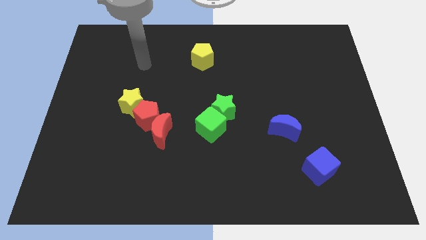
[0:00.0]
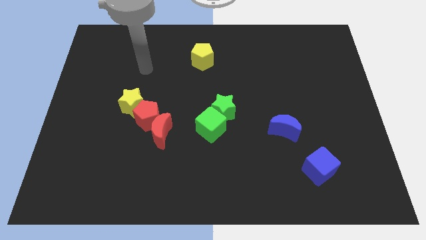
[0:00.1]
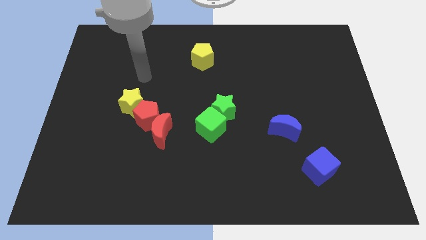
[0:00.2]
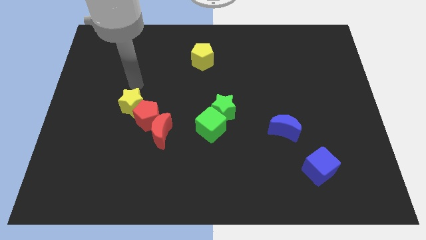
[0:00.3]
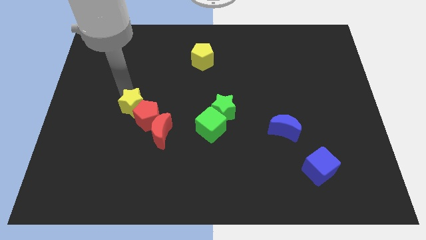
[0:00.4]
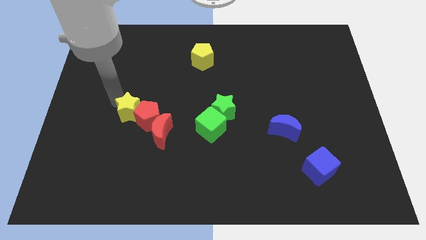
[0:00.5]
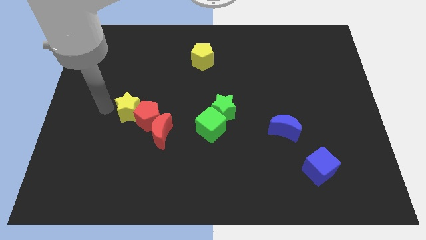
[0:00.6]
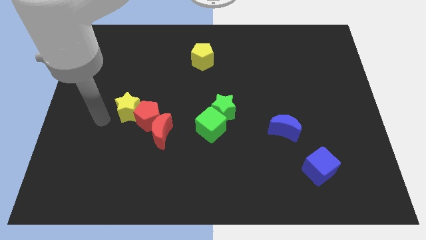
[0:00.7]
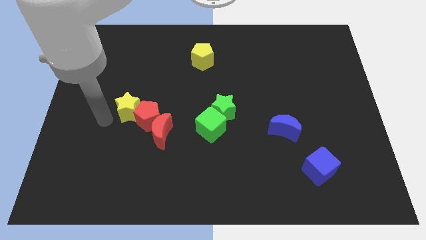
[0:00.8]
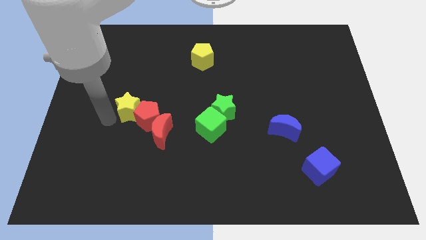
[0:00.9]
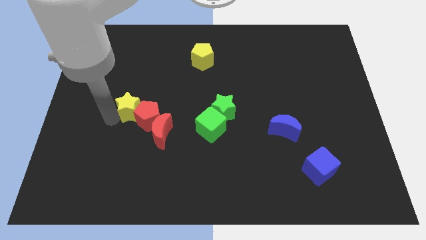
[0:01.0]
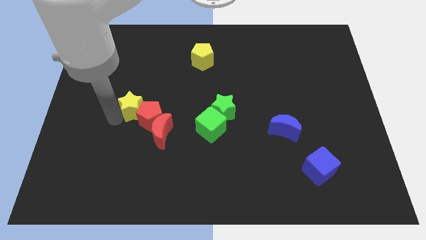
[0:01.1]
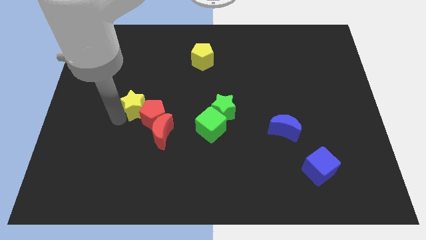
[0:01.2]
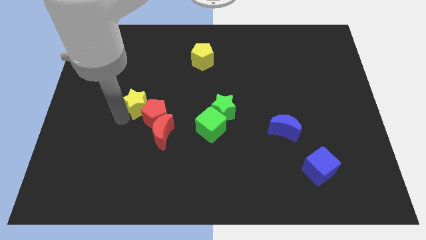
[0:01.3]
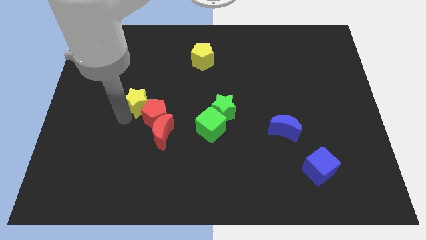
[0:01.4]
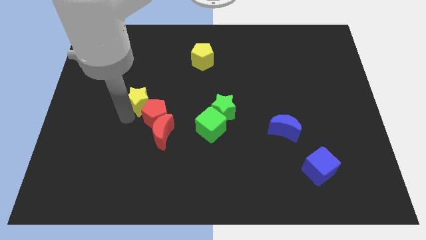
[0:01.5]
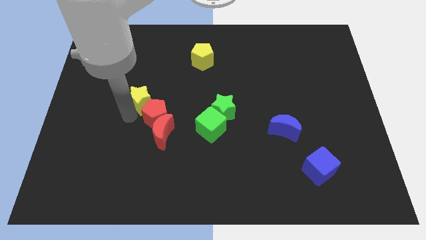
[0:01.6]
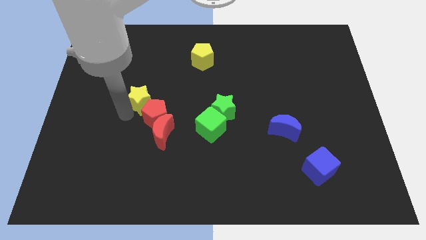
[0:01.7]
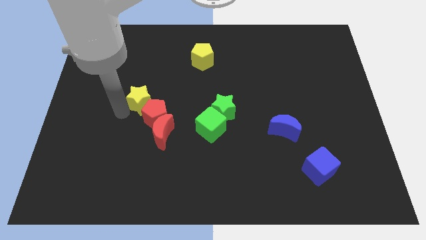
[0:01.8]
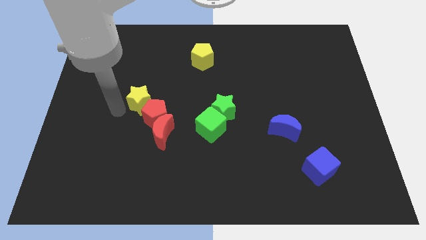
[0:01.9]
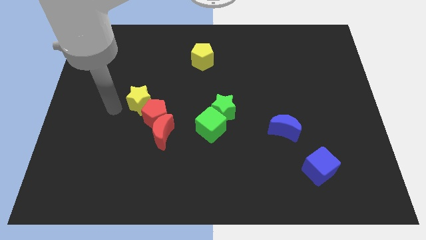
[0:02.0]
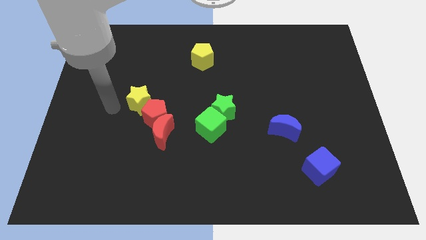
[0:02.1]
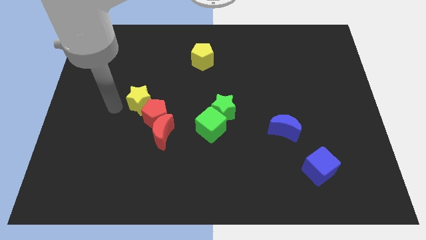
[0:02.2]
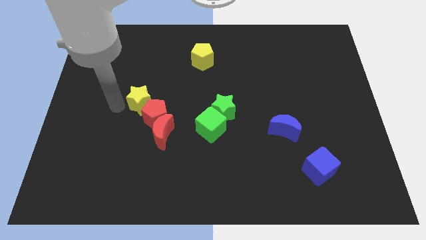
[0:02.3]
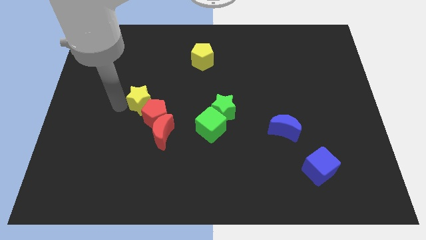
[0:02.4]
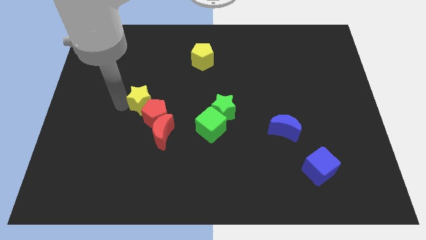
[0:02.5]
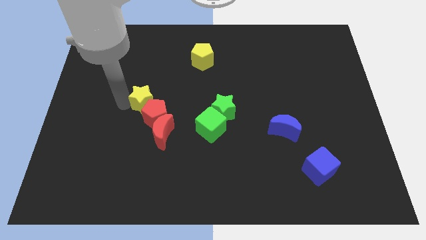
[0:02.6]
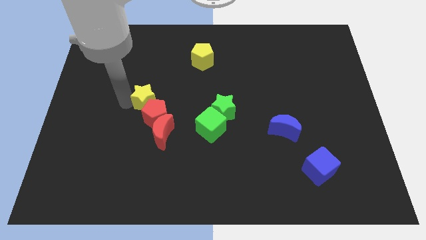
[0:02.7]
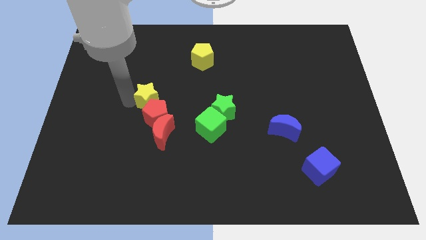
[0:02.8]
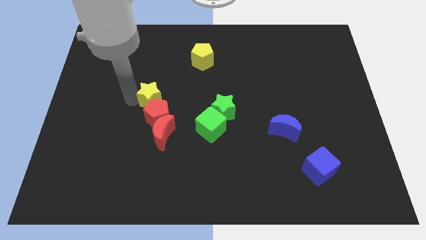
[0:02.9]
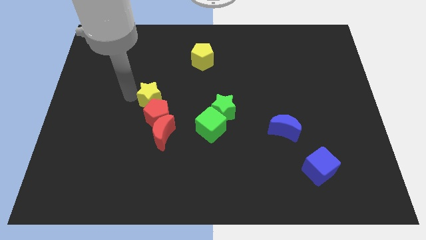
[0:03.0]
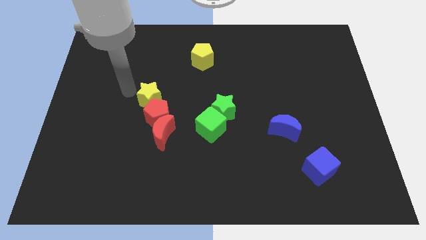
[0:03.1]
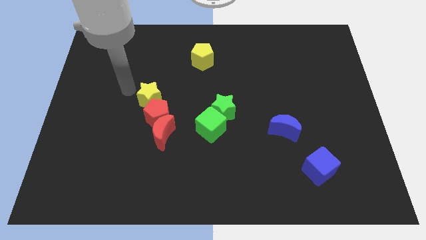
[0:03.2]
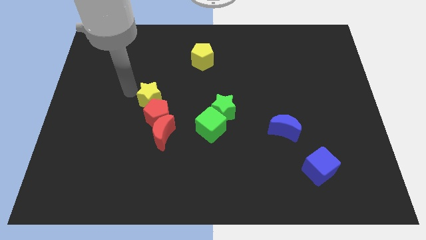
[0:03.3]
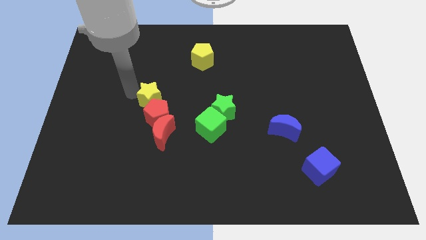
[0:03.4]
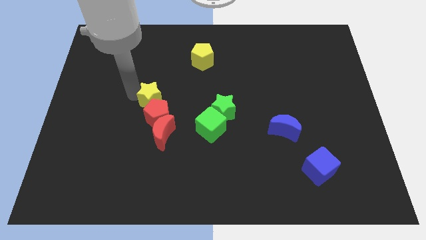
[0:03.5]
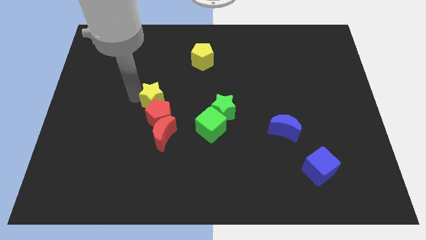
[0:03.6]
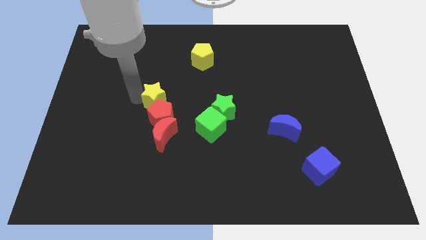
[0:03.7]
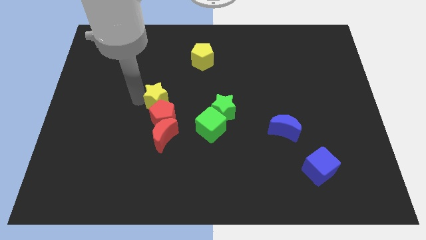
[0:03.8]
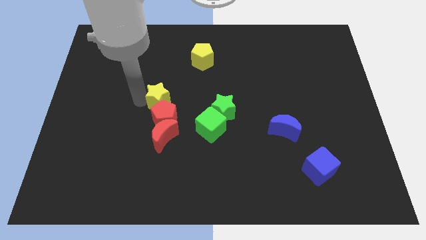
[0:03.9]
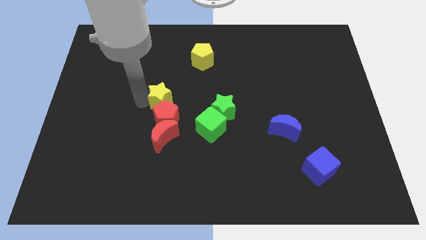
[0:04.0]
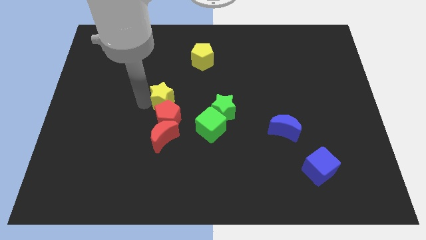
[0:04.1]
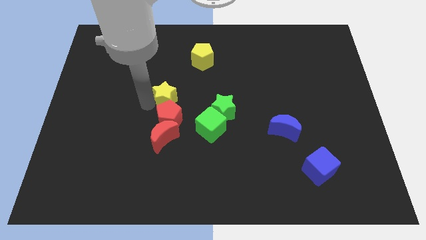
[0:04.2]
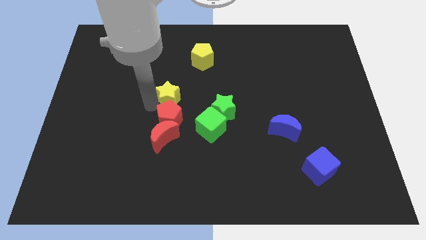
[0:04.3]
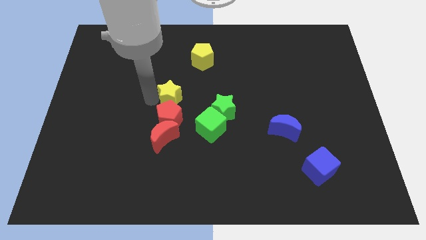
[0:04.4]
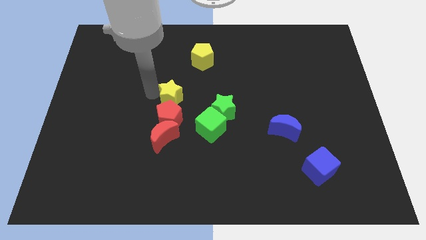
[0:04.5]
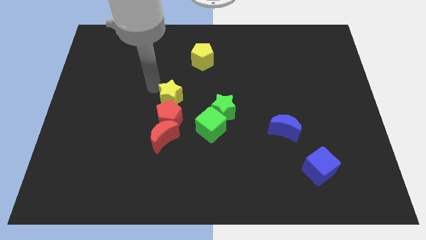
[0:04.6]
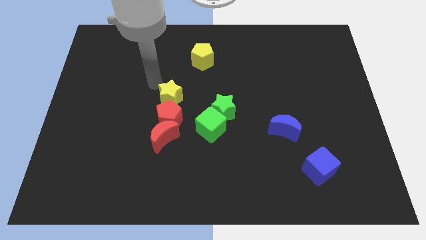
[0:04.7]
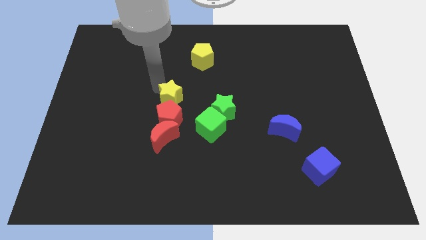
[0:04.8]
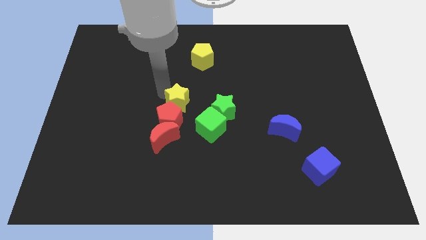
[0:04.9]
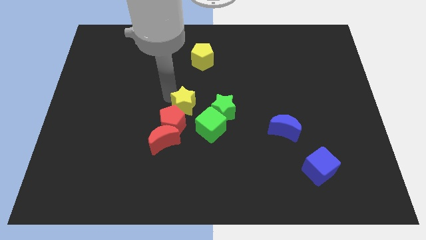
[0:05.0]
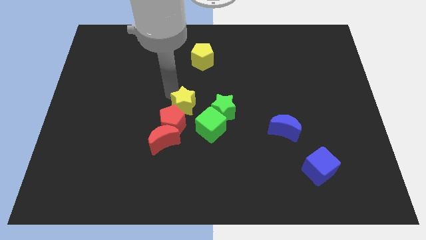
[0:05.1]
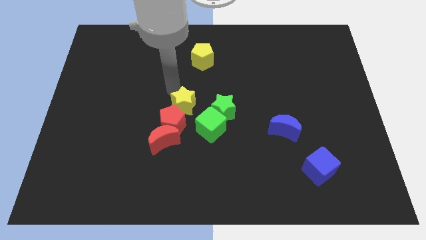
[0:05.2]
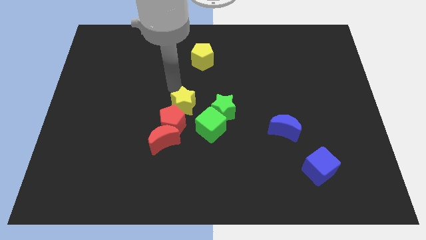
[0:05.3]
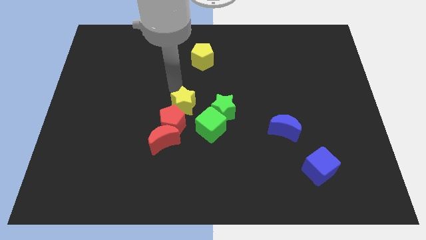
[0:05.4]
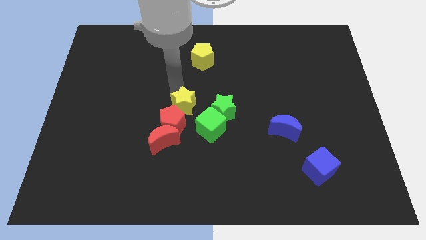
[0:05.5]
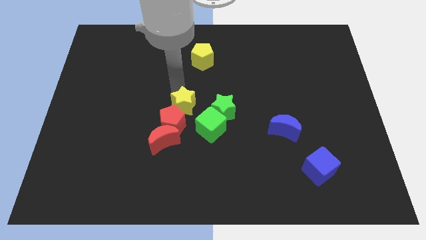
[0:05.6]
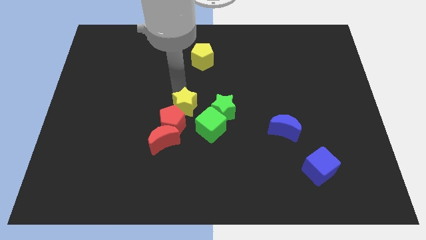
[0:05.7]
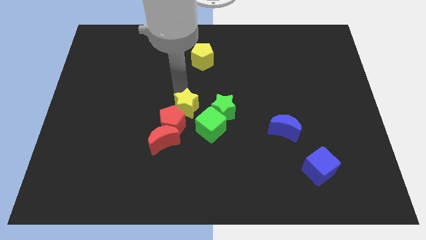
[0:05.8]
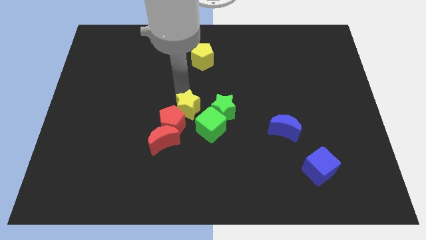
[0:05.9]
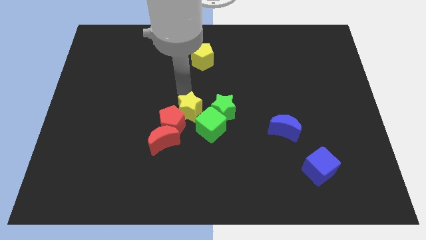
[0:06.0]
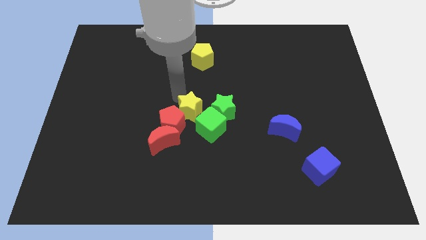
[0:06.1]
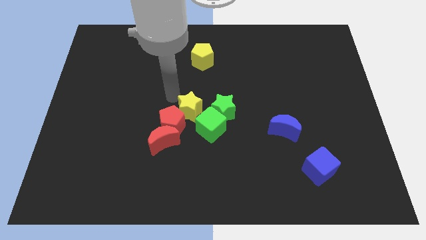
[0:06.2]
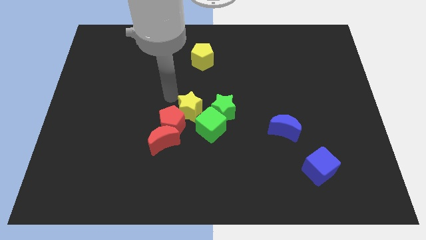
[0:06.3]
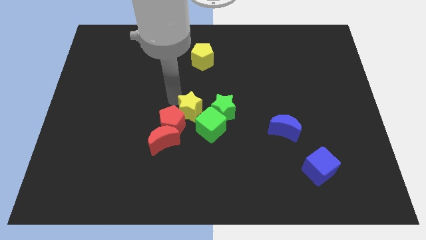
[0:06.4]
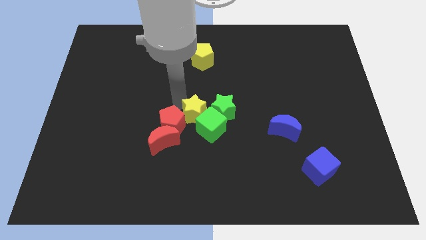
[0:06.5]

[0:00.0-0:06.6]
push the yellow star next to the green cube
